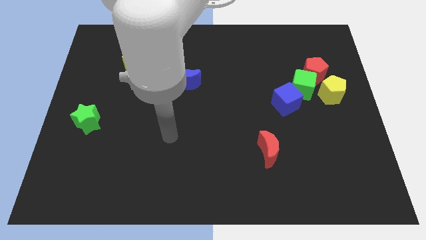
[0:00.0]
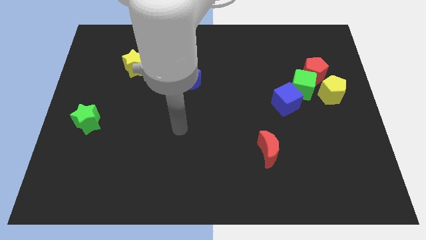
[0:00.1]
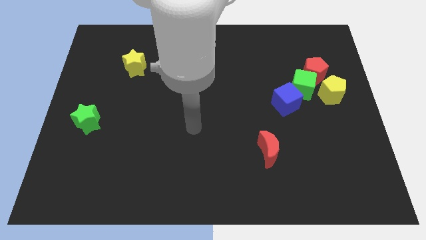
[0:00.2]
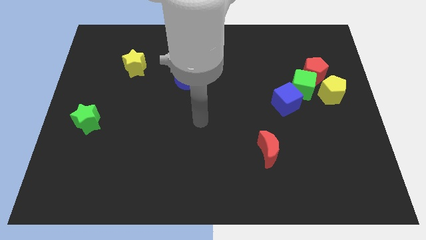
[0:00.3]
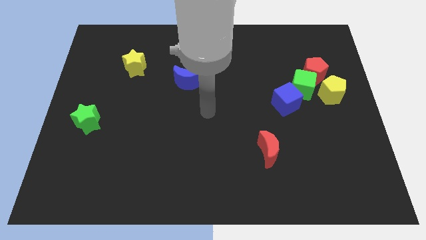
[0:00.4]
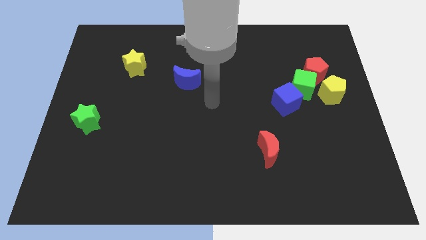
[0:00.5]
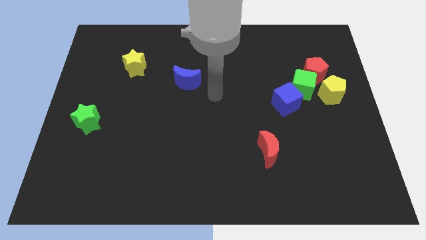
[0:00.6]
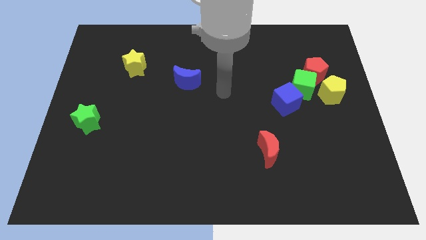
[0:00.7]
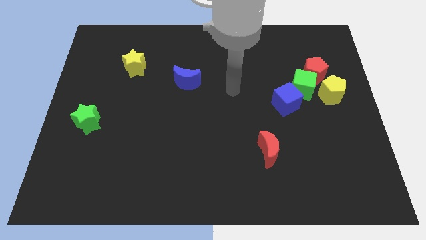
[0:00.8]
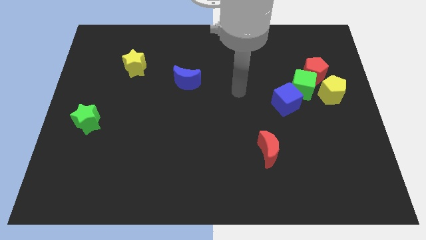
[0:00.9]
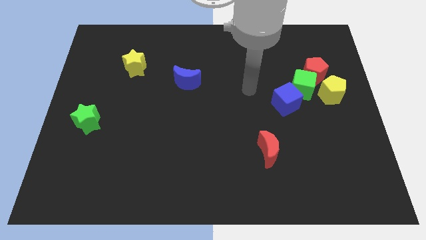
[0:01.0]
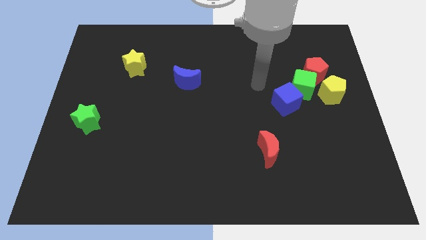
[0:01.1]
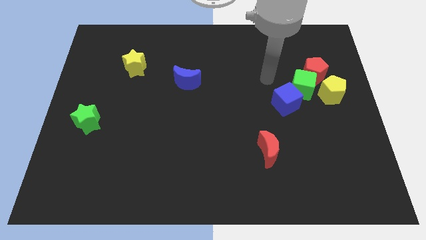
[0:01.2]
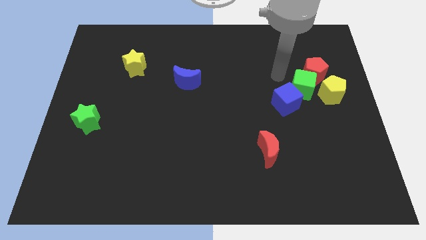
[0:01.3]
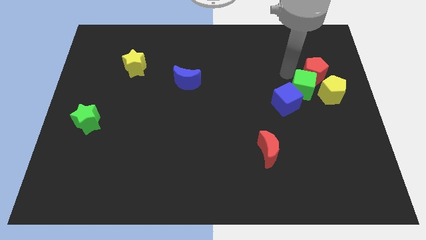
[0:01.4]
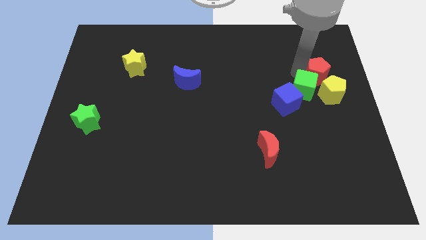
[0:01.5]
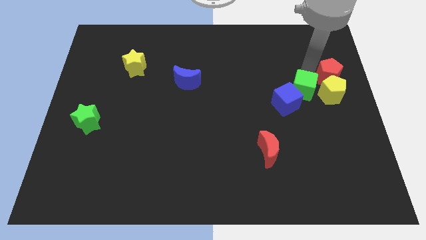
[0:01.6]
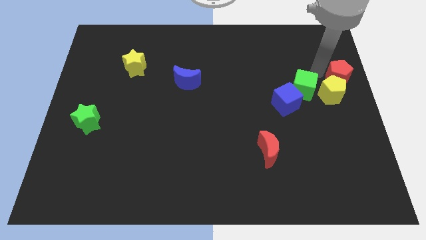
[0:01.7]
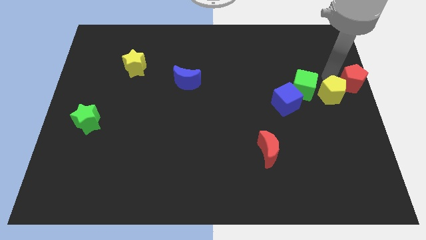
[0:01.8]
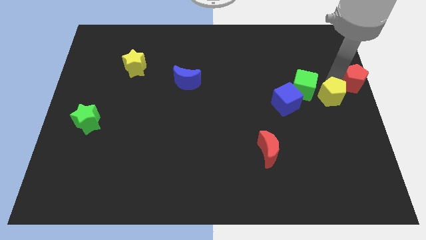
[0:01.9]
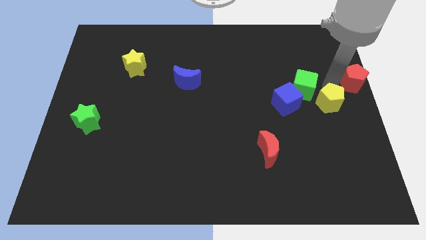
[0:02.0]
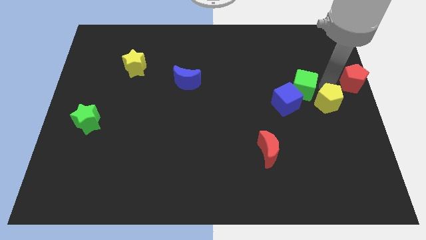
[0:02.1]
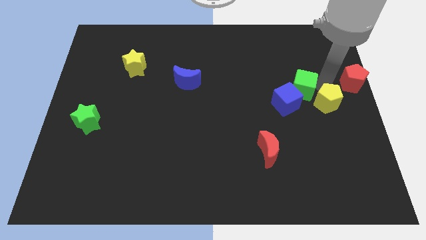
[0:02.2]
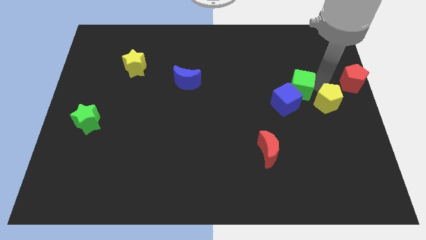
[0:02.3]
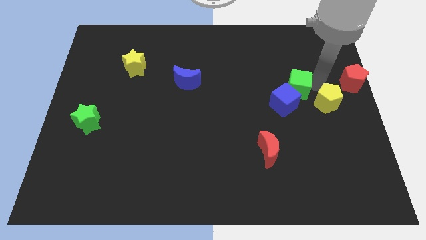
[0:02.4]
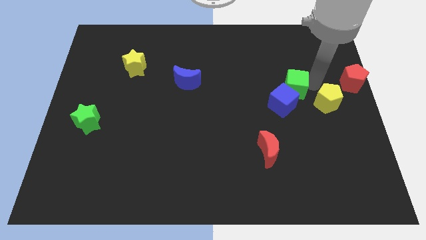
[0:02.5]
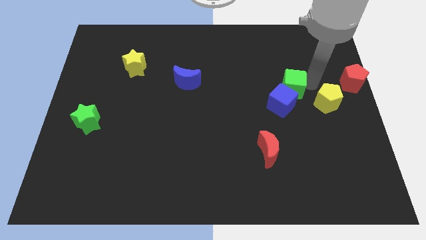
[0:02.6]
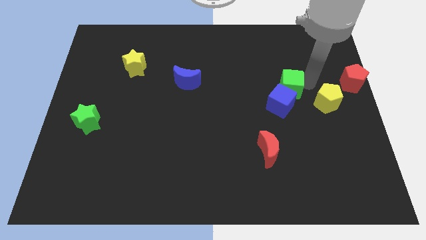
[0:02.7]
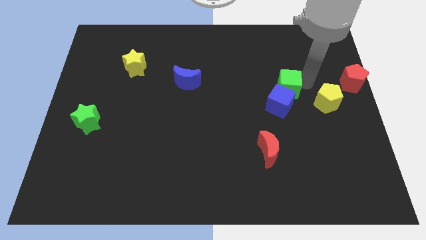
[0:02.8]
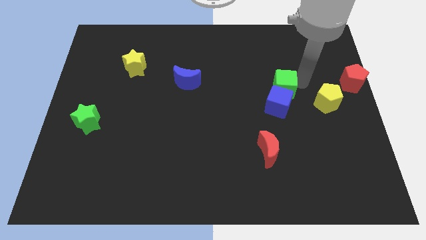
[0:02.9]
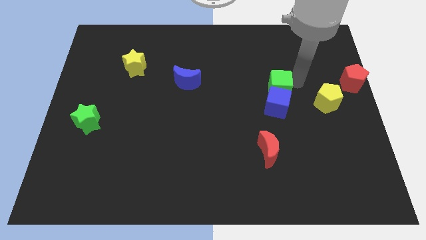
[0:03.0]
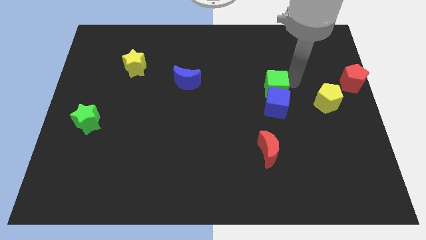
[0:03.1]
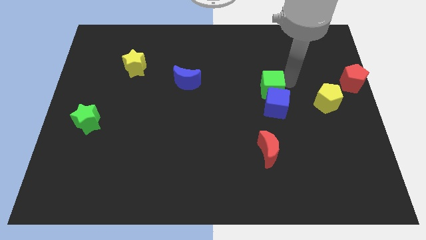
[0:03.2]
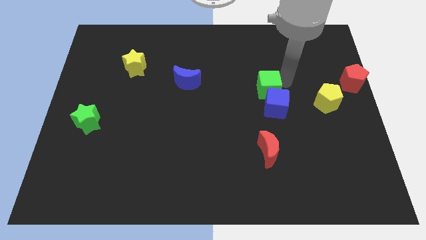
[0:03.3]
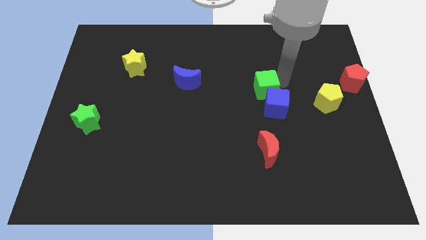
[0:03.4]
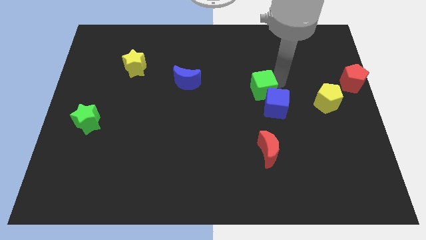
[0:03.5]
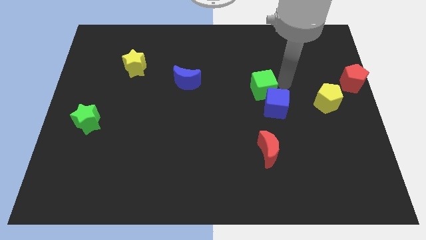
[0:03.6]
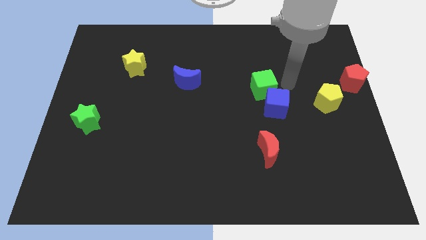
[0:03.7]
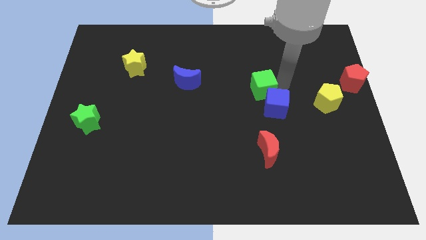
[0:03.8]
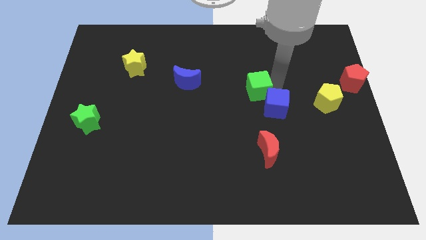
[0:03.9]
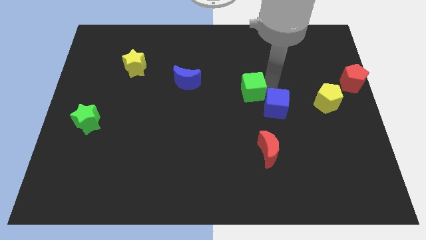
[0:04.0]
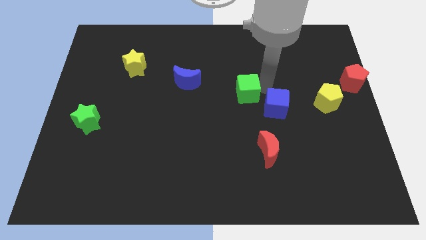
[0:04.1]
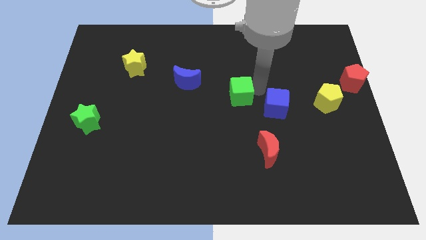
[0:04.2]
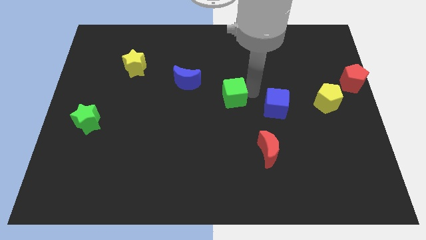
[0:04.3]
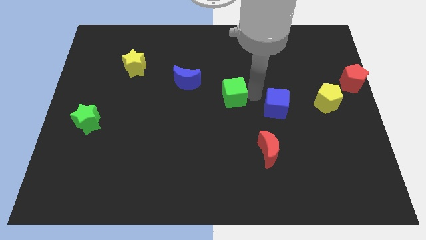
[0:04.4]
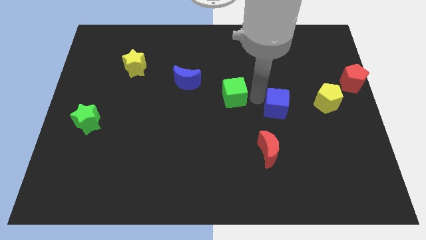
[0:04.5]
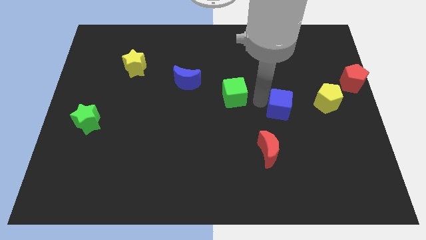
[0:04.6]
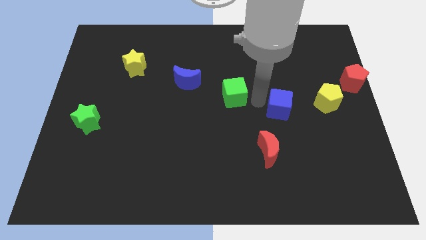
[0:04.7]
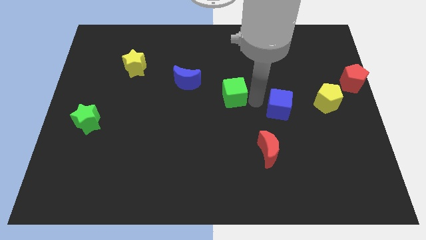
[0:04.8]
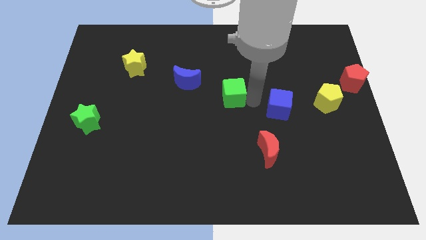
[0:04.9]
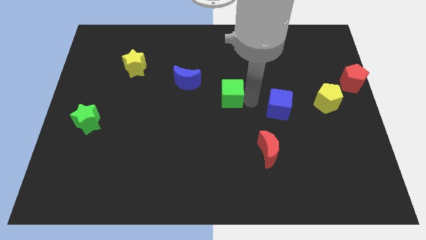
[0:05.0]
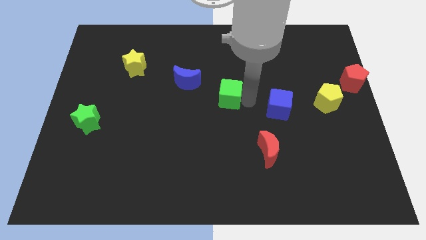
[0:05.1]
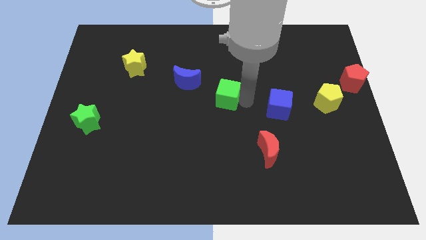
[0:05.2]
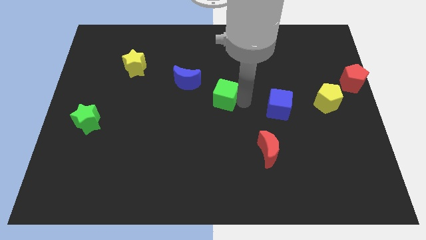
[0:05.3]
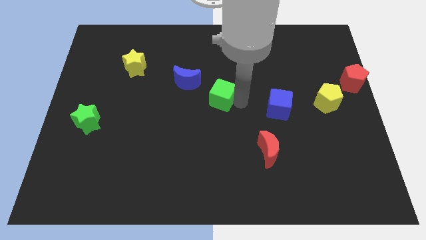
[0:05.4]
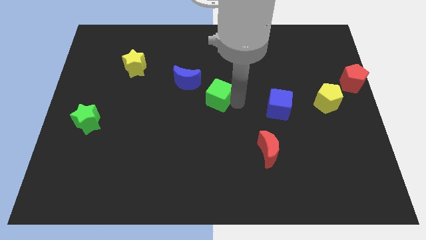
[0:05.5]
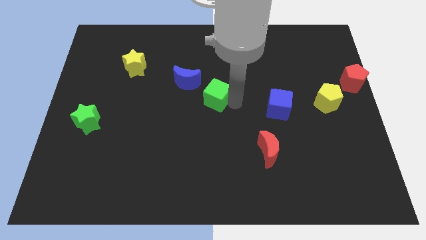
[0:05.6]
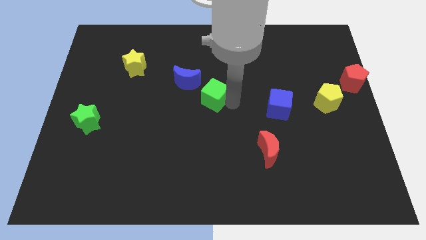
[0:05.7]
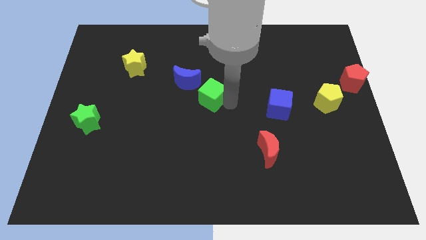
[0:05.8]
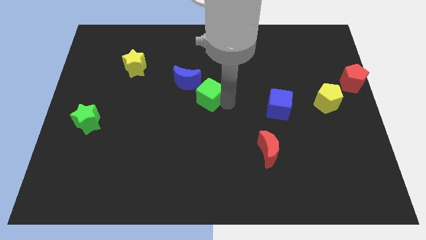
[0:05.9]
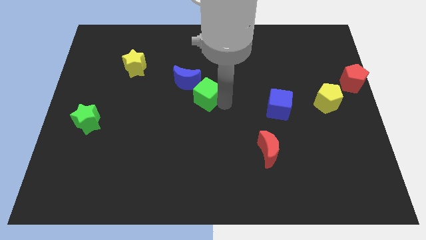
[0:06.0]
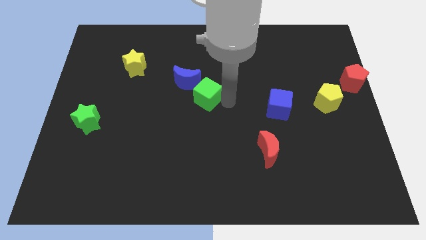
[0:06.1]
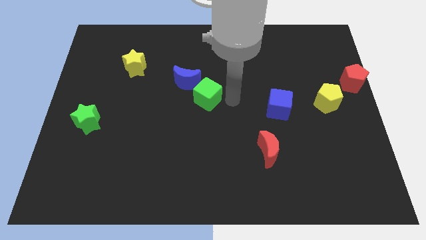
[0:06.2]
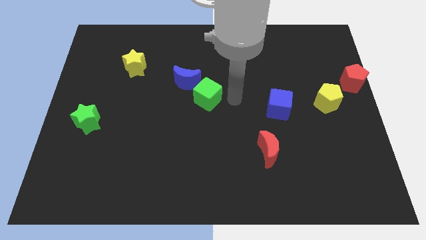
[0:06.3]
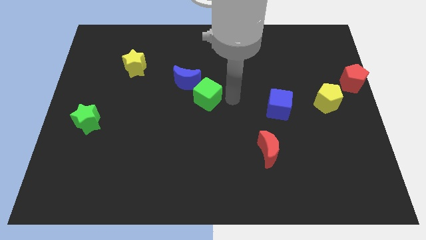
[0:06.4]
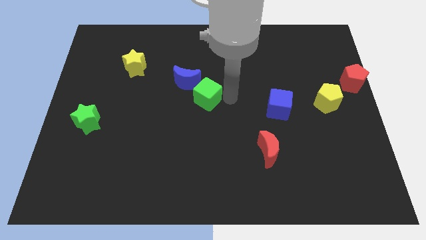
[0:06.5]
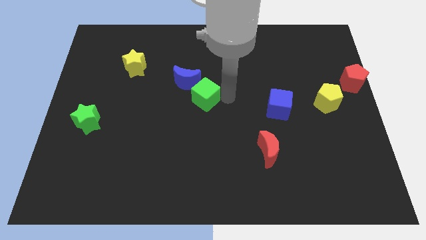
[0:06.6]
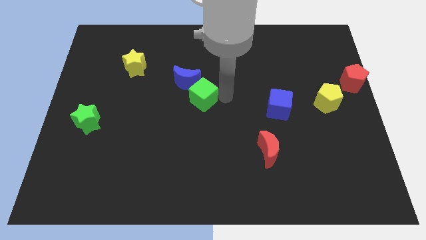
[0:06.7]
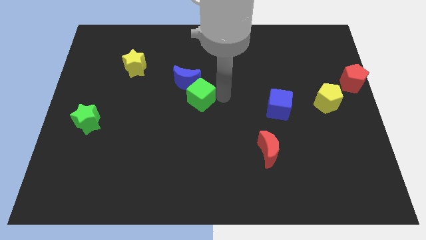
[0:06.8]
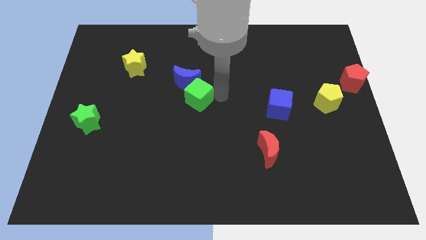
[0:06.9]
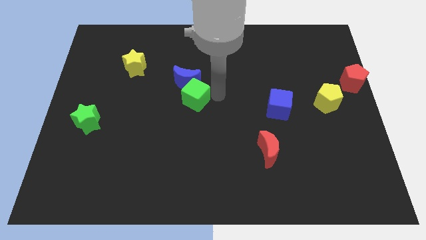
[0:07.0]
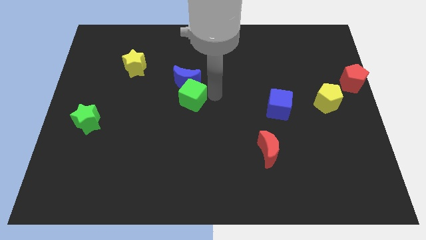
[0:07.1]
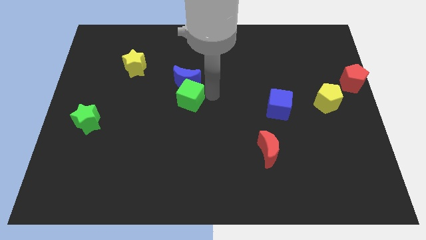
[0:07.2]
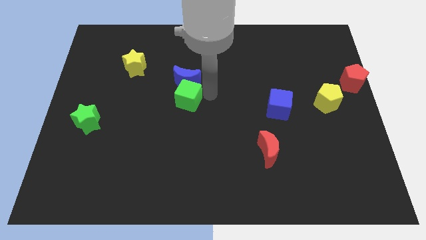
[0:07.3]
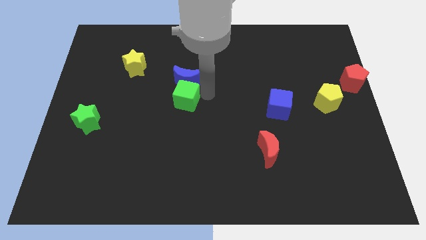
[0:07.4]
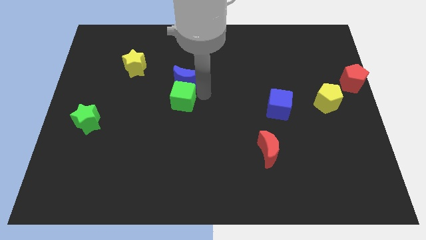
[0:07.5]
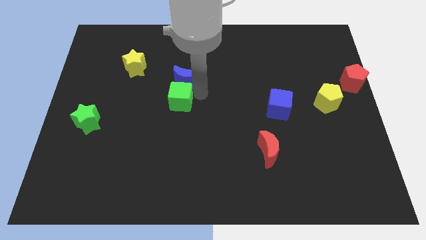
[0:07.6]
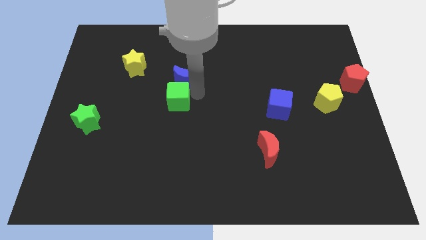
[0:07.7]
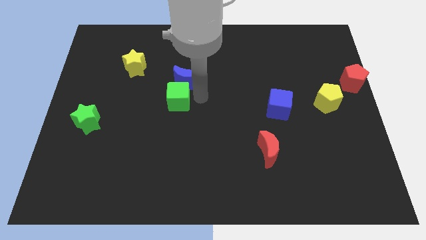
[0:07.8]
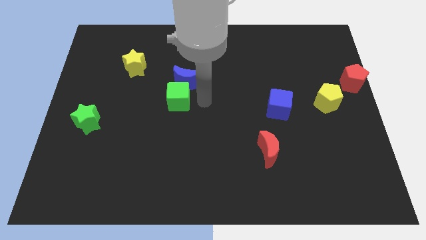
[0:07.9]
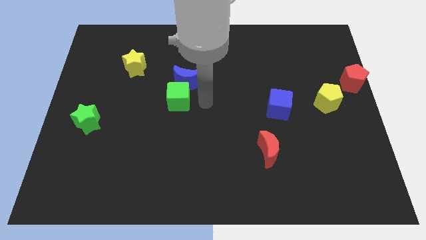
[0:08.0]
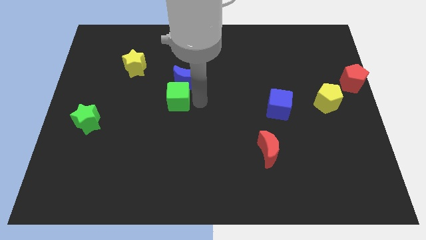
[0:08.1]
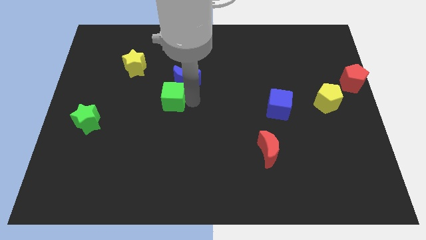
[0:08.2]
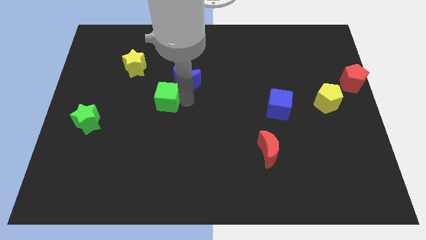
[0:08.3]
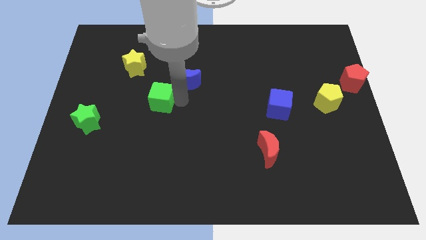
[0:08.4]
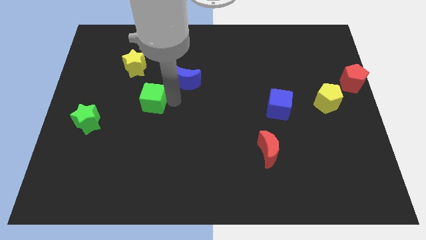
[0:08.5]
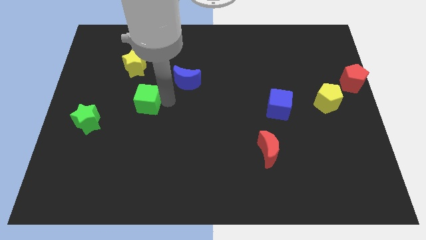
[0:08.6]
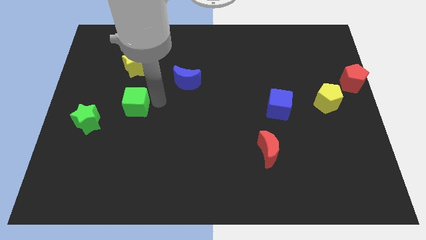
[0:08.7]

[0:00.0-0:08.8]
move the green cube to the top right of the green star
